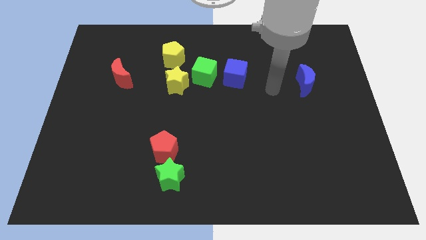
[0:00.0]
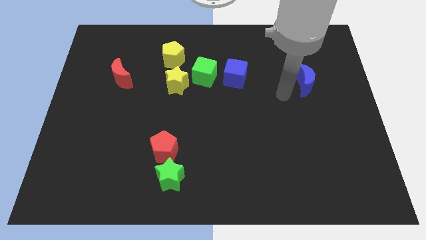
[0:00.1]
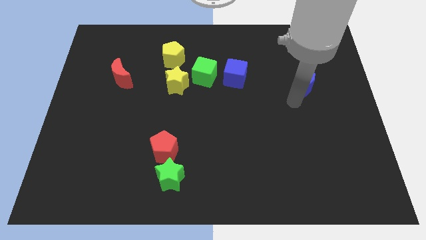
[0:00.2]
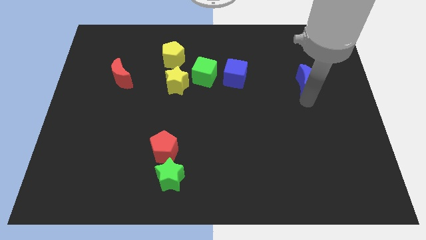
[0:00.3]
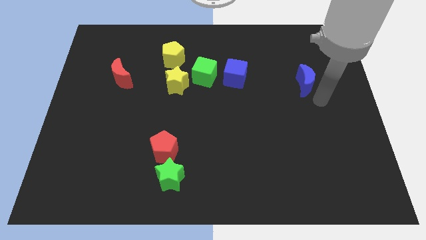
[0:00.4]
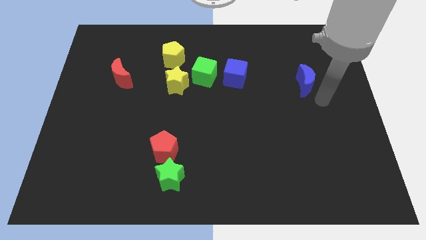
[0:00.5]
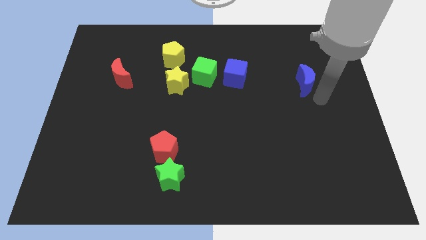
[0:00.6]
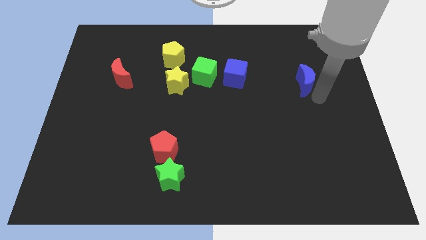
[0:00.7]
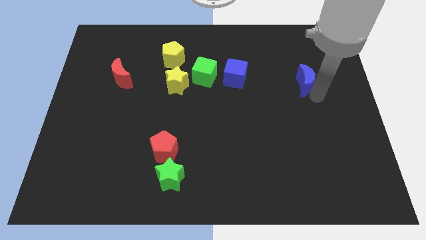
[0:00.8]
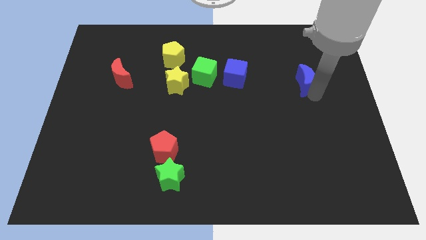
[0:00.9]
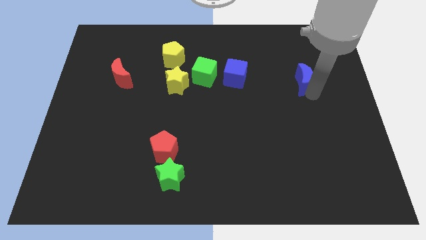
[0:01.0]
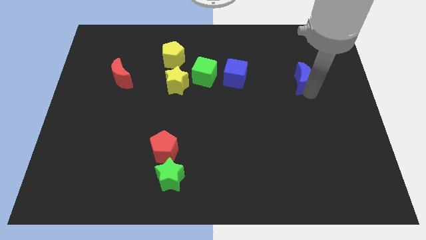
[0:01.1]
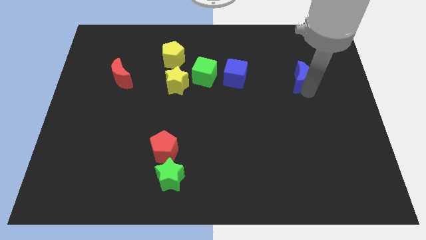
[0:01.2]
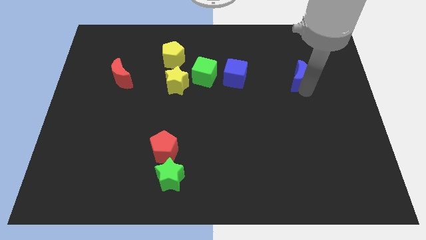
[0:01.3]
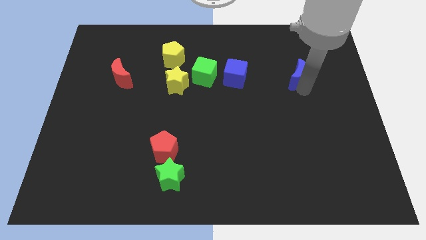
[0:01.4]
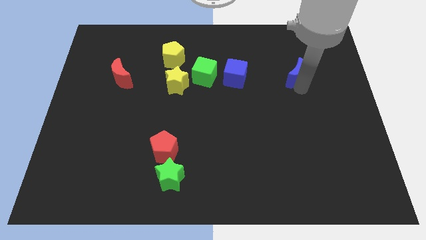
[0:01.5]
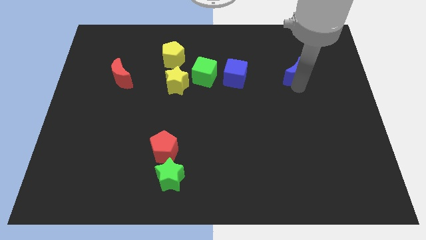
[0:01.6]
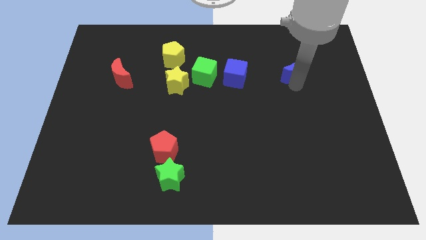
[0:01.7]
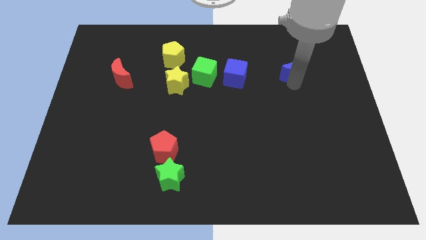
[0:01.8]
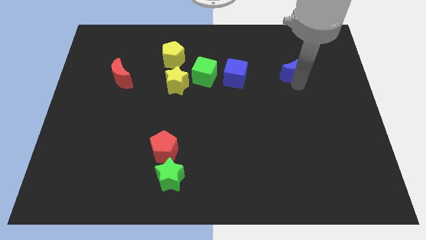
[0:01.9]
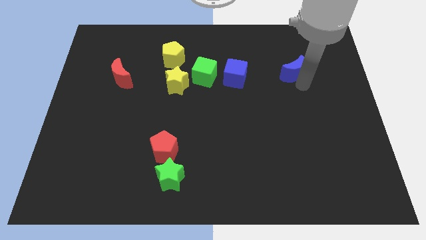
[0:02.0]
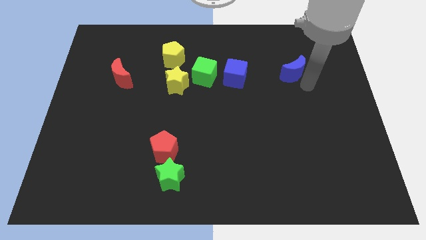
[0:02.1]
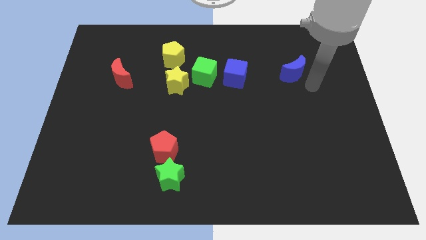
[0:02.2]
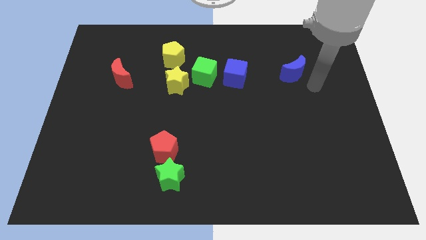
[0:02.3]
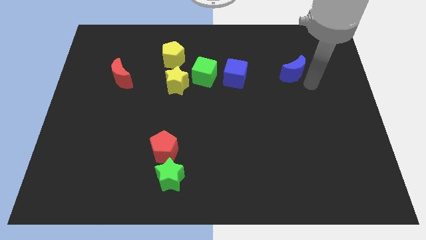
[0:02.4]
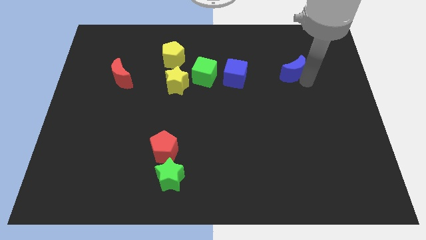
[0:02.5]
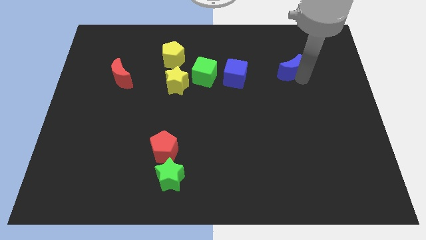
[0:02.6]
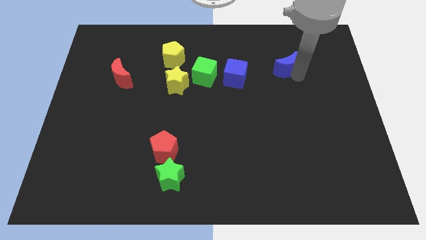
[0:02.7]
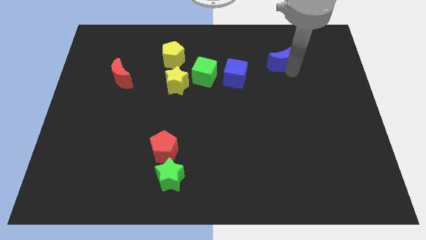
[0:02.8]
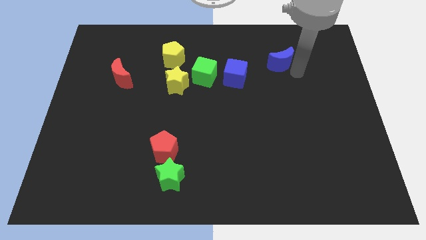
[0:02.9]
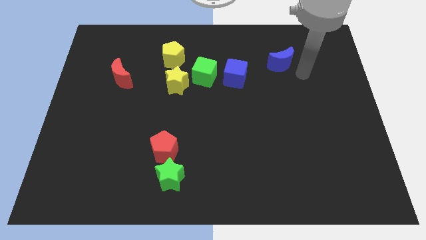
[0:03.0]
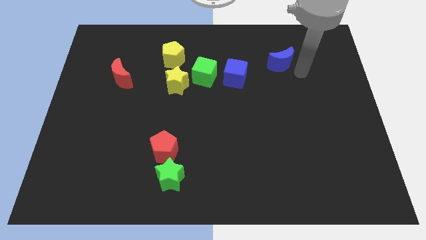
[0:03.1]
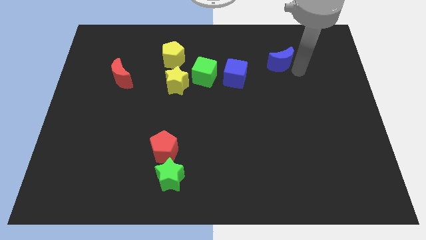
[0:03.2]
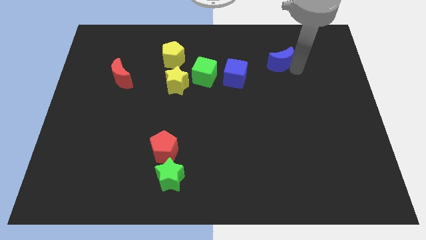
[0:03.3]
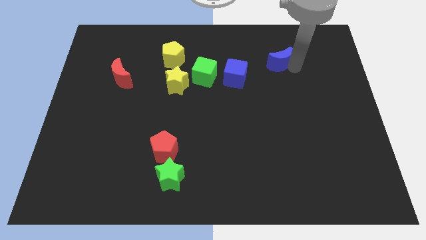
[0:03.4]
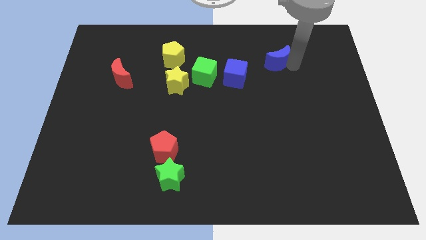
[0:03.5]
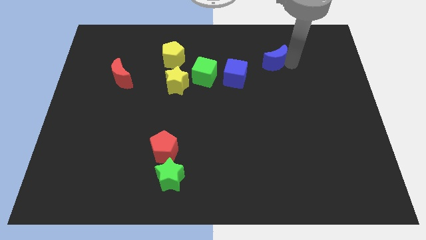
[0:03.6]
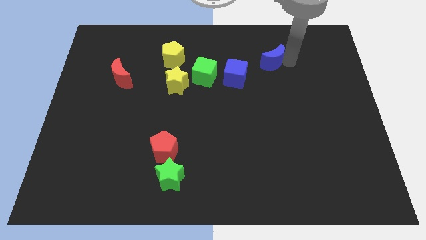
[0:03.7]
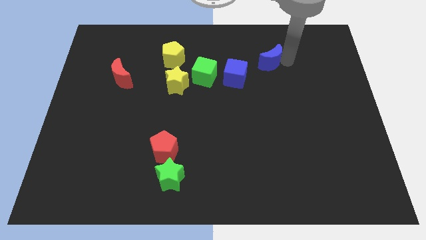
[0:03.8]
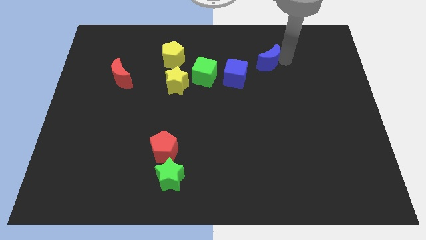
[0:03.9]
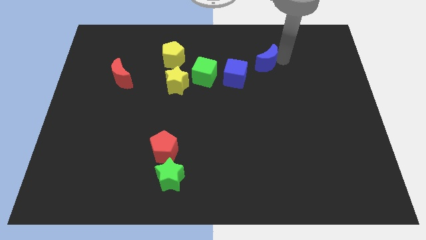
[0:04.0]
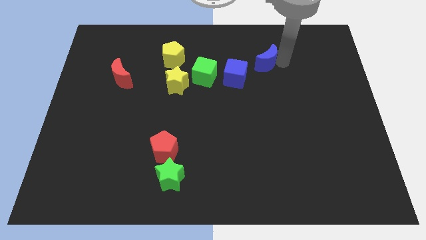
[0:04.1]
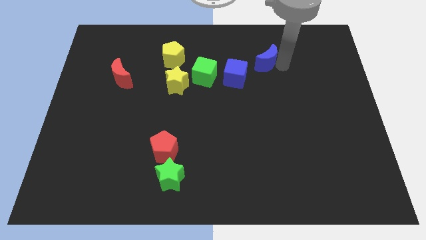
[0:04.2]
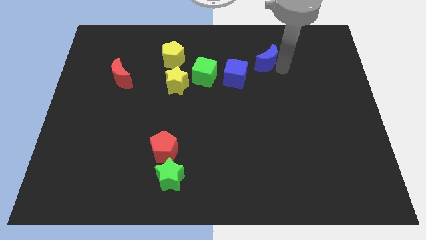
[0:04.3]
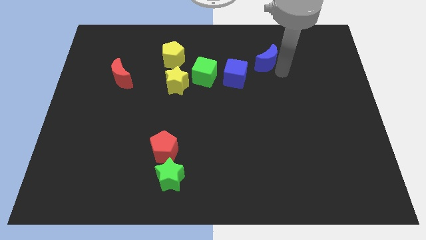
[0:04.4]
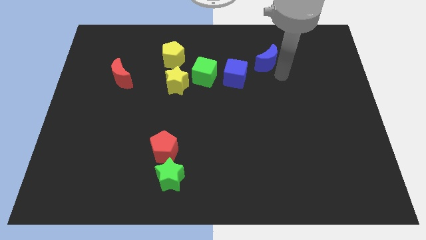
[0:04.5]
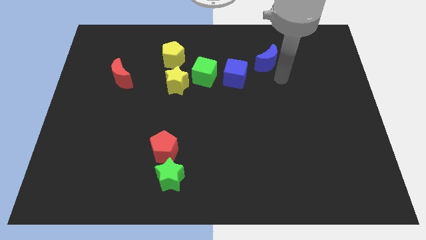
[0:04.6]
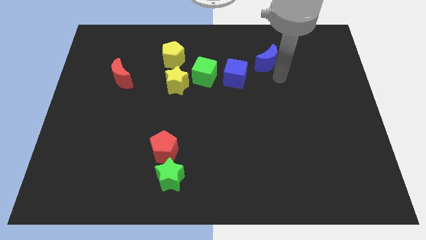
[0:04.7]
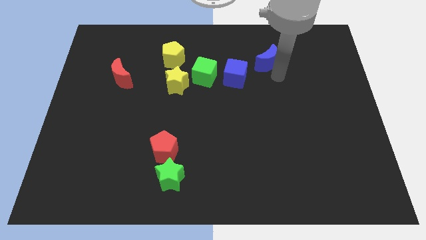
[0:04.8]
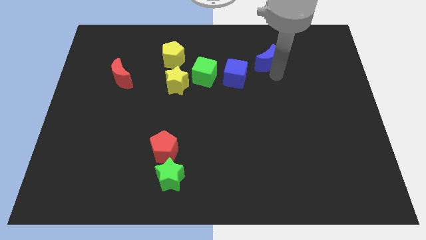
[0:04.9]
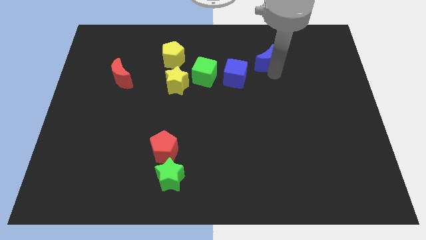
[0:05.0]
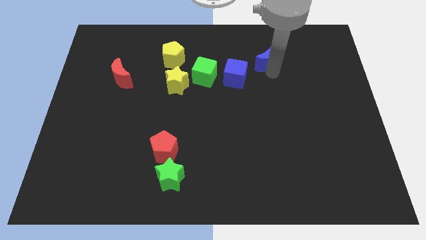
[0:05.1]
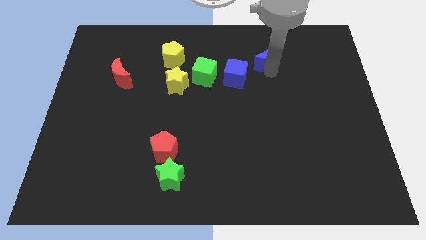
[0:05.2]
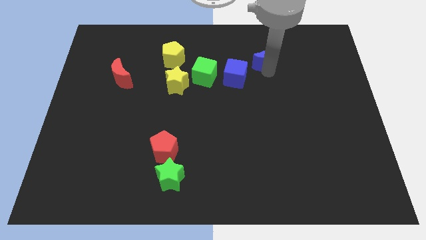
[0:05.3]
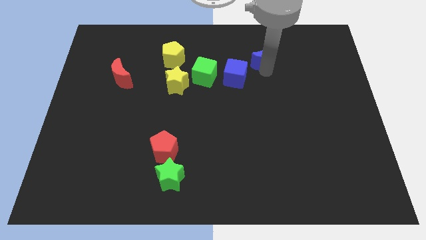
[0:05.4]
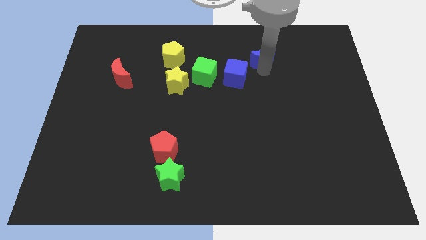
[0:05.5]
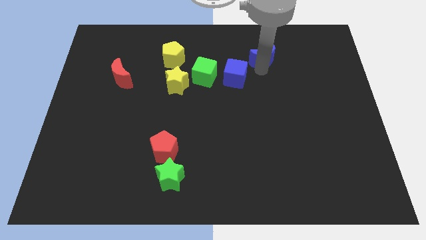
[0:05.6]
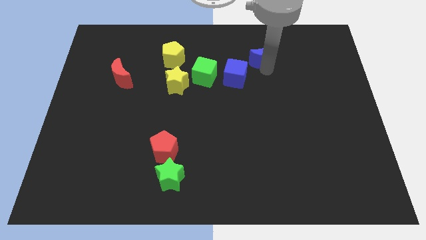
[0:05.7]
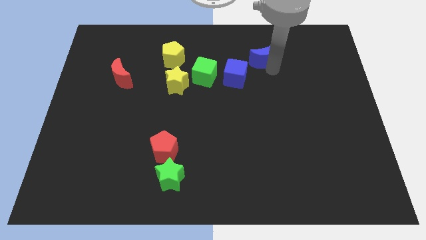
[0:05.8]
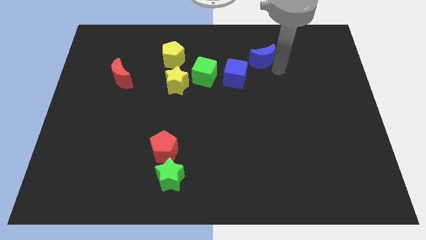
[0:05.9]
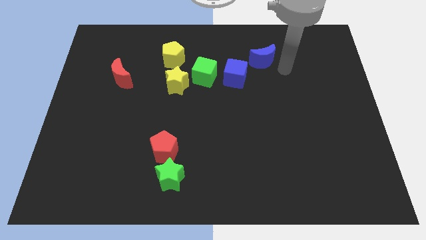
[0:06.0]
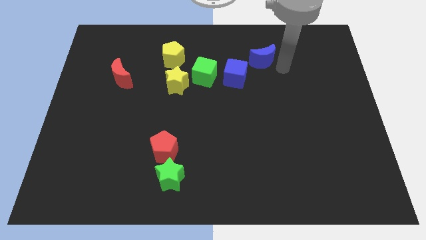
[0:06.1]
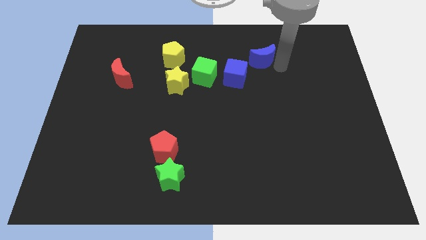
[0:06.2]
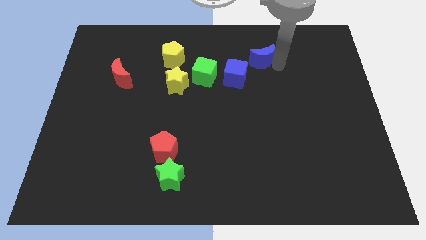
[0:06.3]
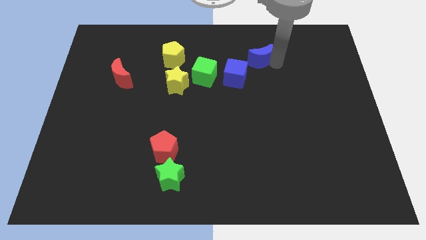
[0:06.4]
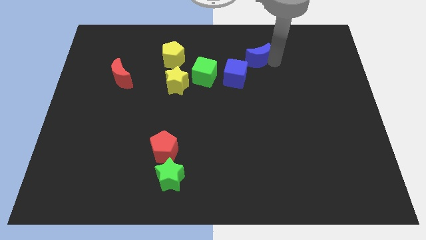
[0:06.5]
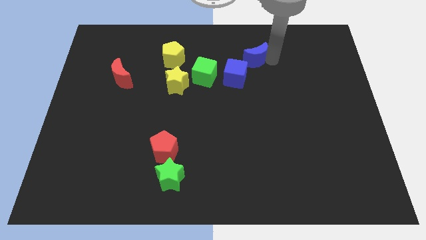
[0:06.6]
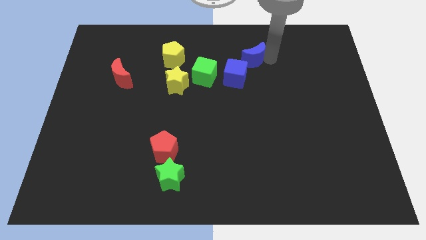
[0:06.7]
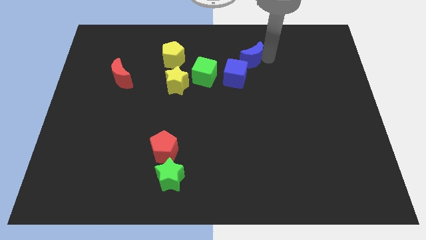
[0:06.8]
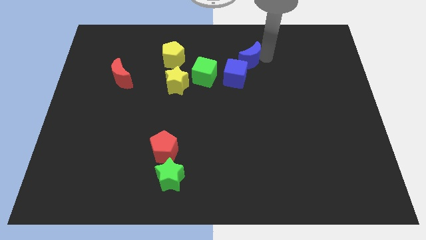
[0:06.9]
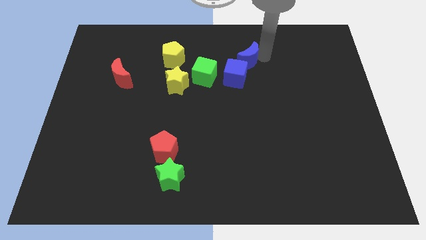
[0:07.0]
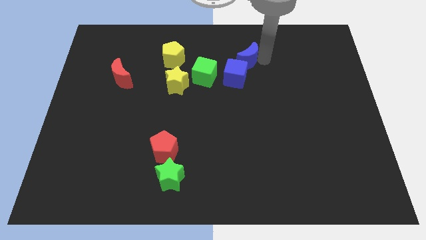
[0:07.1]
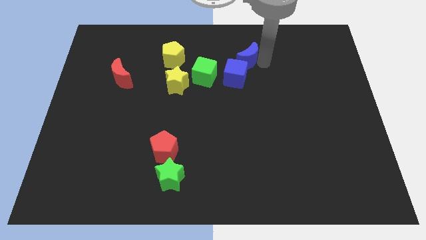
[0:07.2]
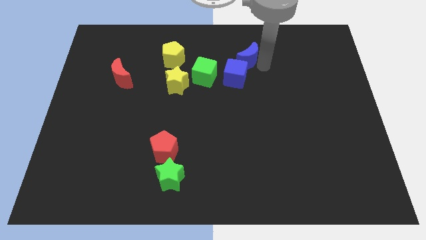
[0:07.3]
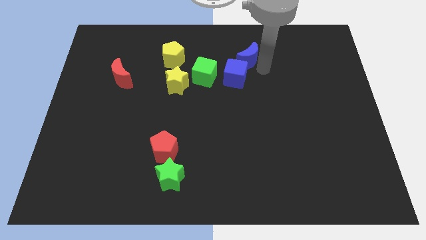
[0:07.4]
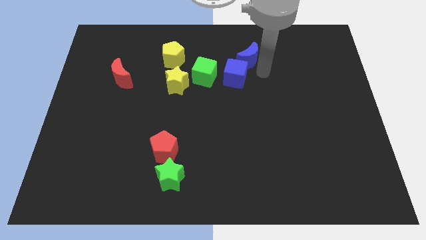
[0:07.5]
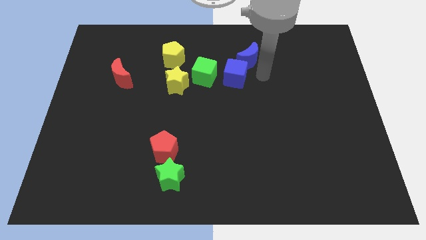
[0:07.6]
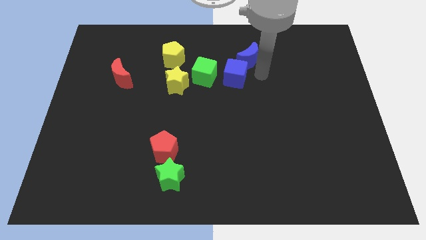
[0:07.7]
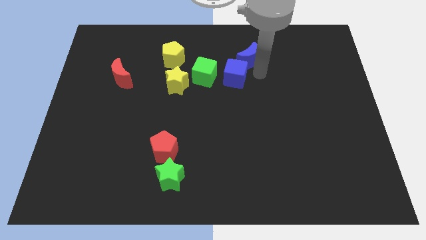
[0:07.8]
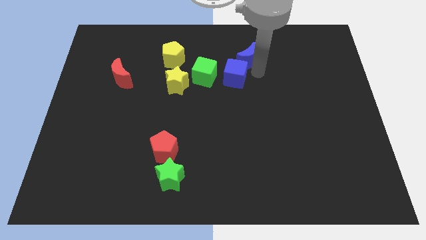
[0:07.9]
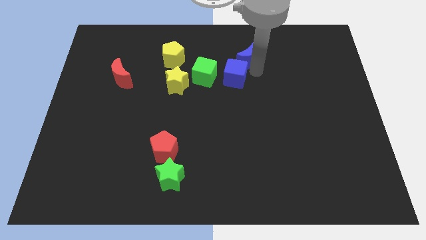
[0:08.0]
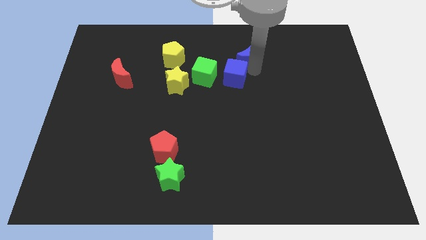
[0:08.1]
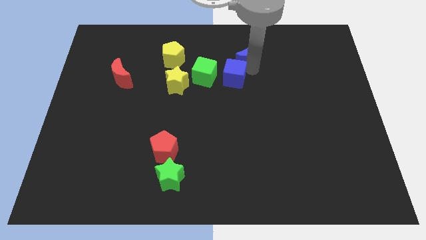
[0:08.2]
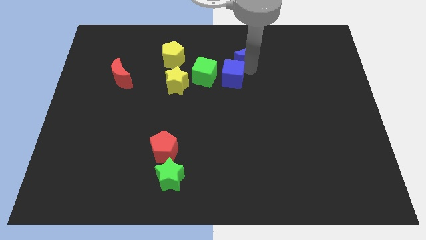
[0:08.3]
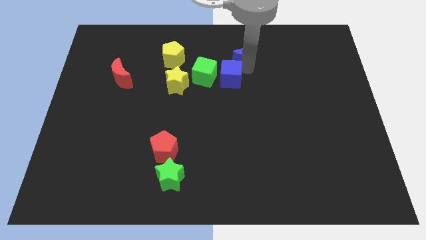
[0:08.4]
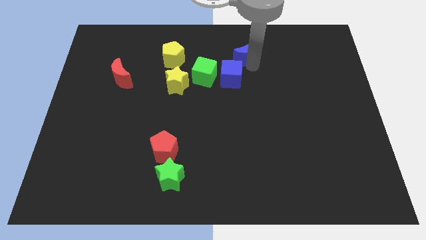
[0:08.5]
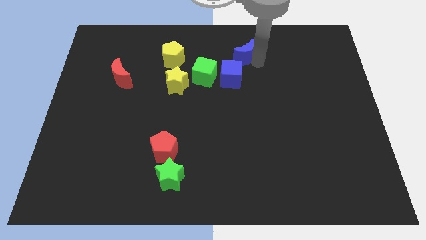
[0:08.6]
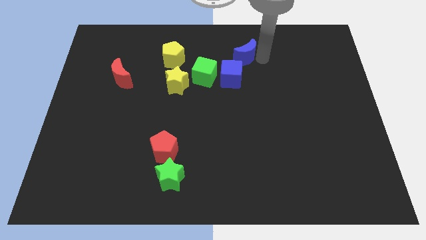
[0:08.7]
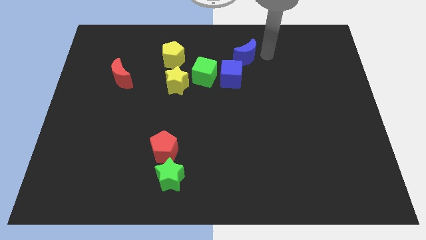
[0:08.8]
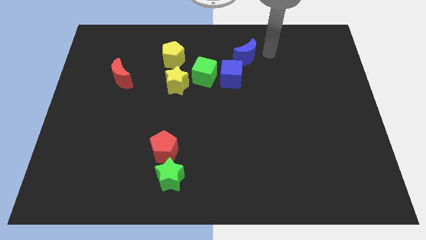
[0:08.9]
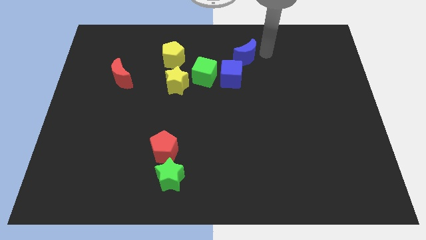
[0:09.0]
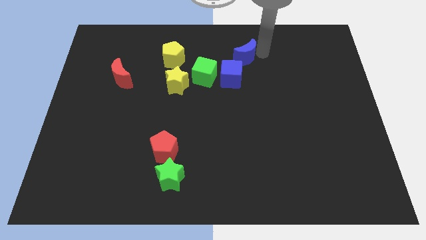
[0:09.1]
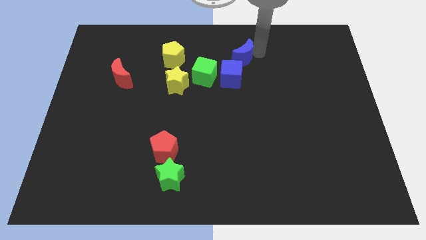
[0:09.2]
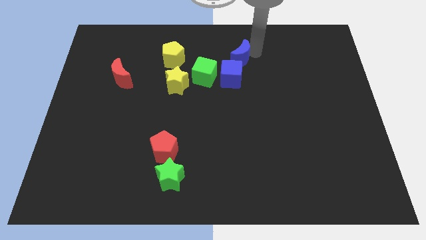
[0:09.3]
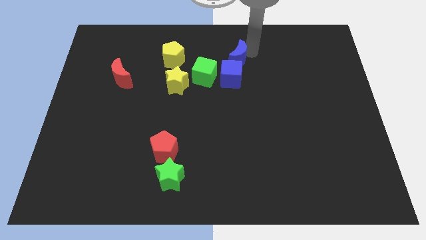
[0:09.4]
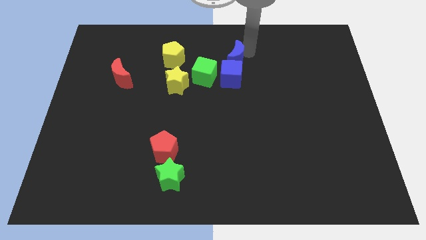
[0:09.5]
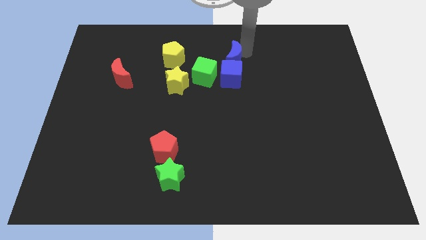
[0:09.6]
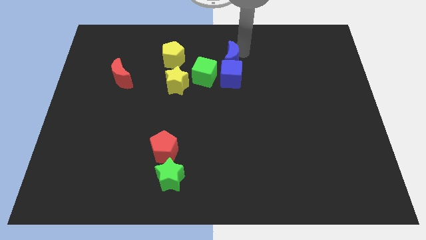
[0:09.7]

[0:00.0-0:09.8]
push the blue moon diagonally up and to the left of the blue cube
